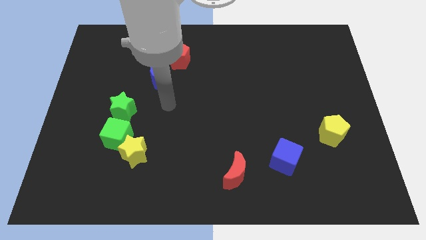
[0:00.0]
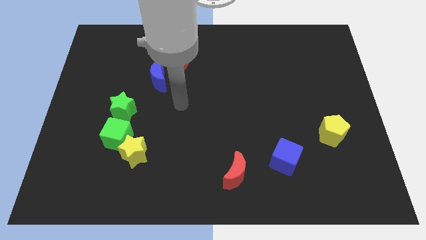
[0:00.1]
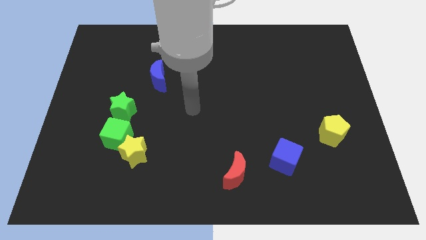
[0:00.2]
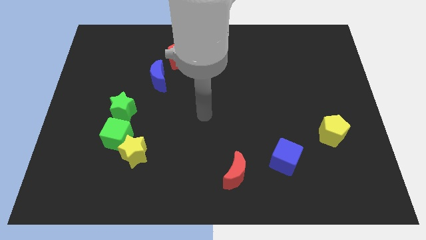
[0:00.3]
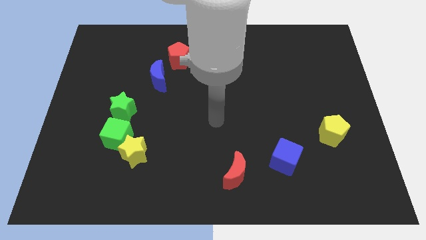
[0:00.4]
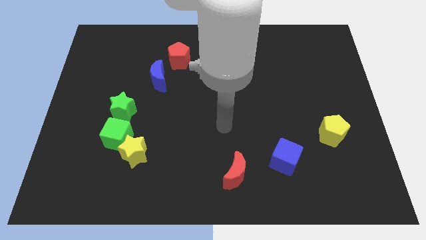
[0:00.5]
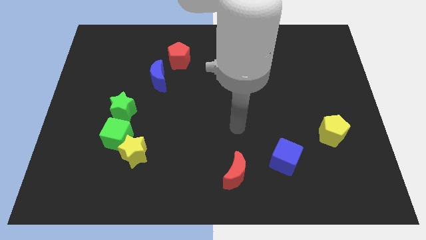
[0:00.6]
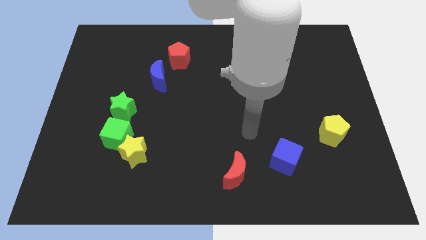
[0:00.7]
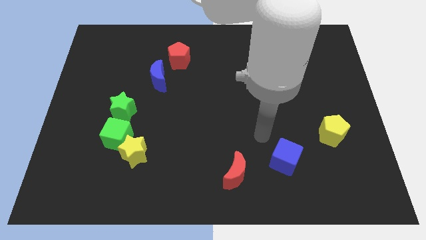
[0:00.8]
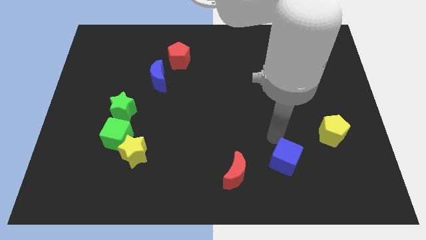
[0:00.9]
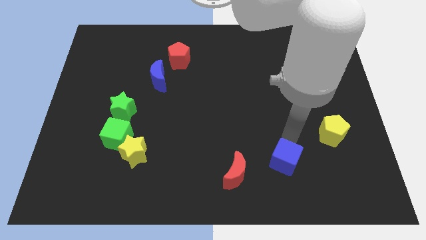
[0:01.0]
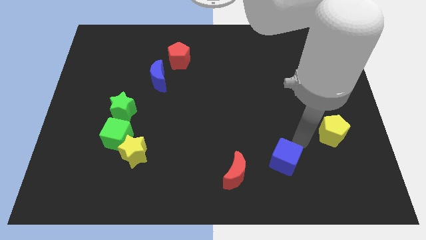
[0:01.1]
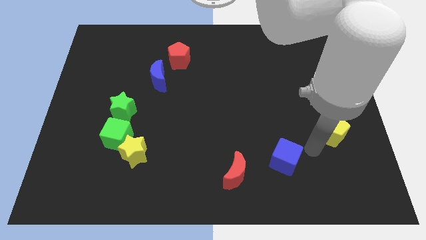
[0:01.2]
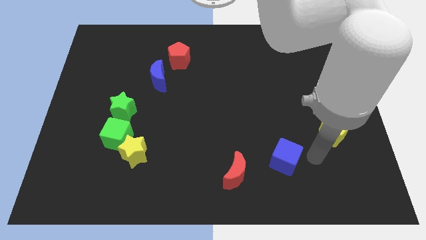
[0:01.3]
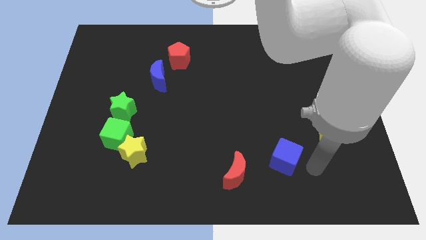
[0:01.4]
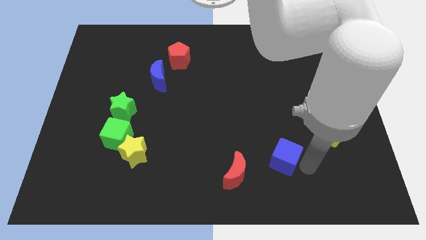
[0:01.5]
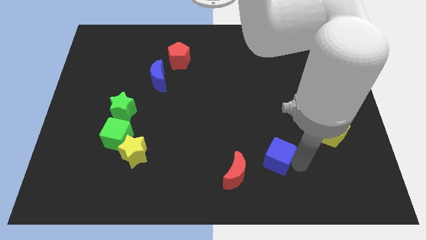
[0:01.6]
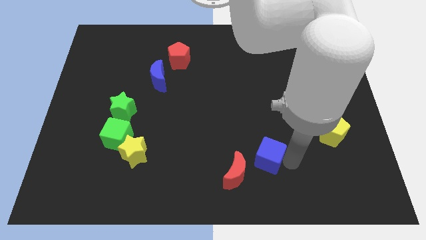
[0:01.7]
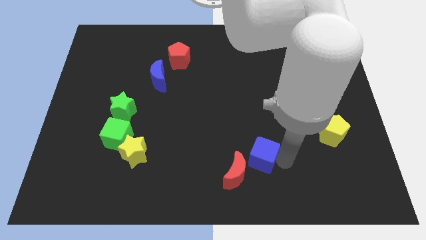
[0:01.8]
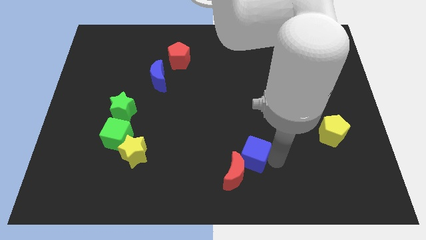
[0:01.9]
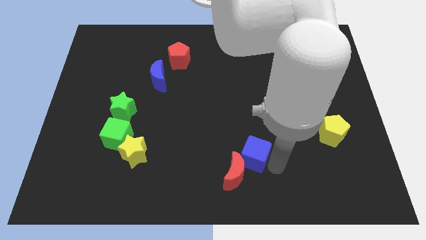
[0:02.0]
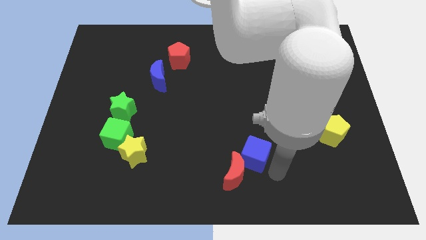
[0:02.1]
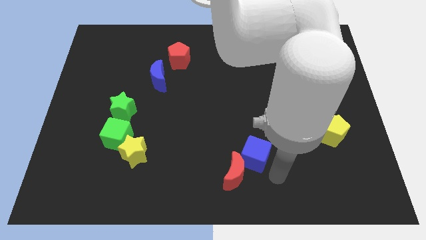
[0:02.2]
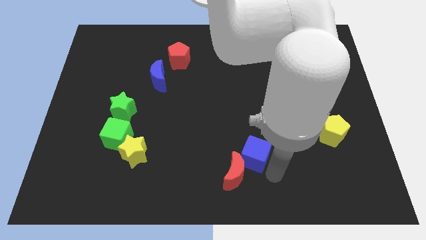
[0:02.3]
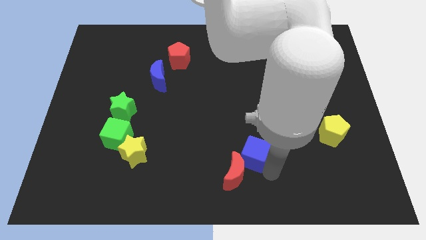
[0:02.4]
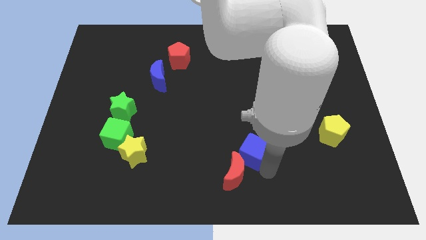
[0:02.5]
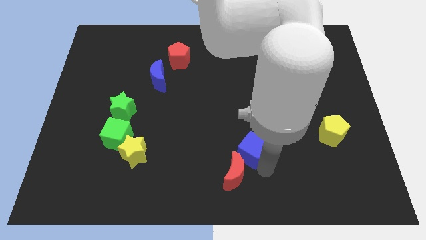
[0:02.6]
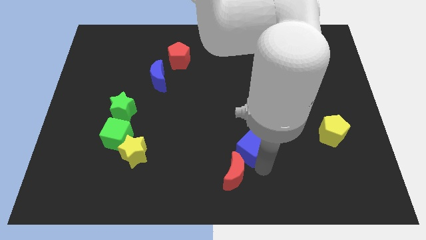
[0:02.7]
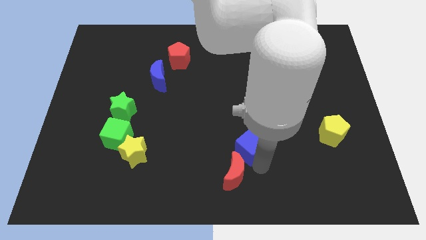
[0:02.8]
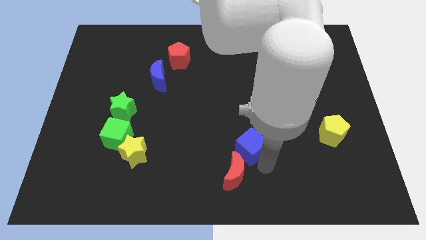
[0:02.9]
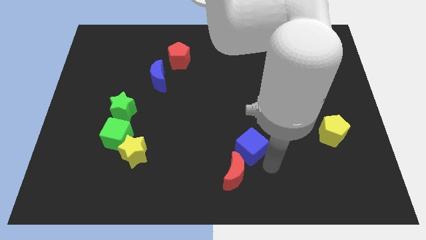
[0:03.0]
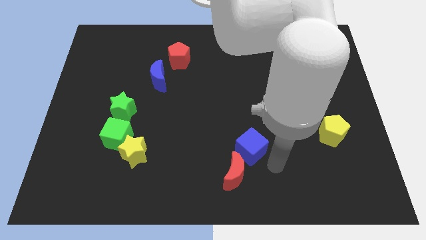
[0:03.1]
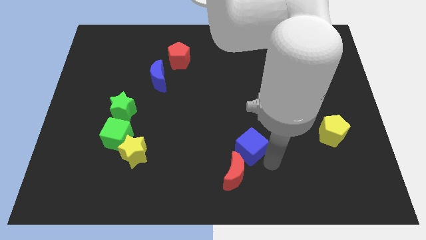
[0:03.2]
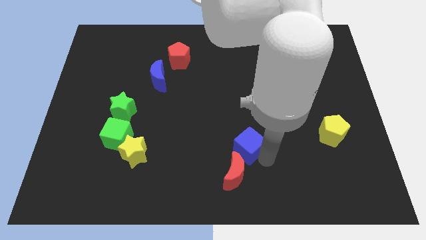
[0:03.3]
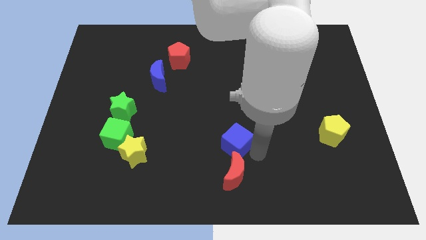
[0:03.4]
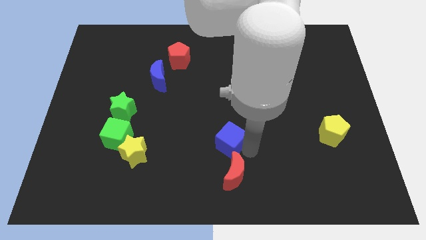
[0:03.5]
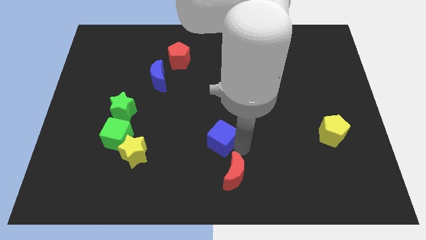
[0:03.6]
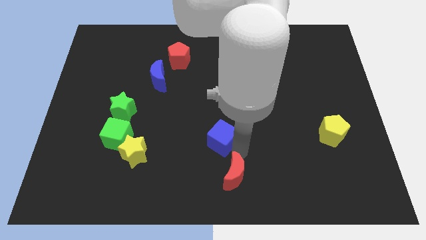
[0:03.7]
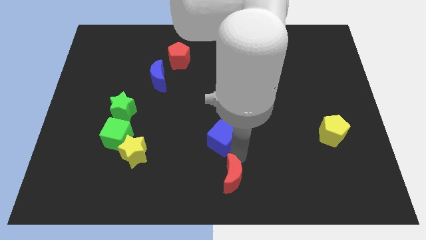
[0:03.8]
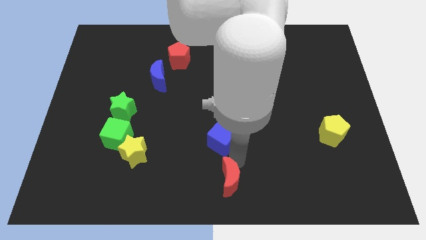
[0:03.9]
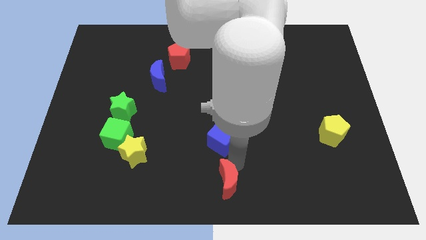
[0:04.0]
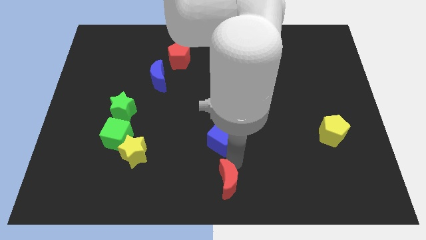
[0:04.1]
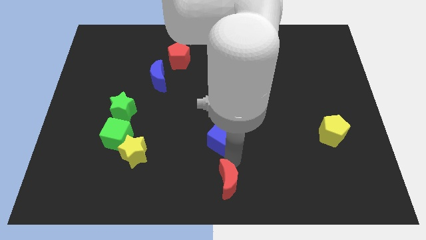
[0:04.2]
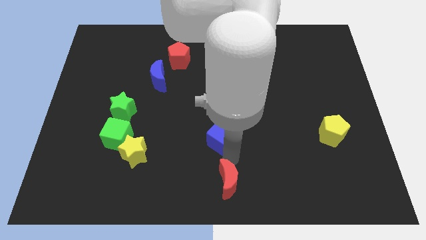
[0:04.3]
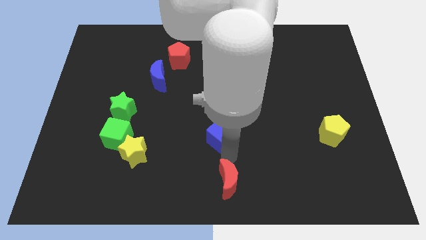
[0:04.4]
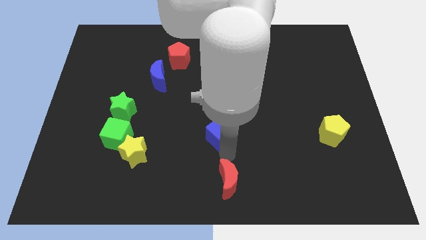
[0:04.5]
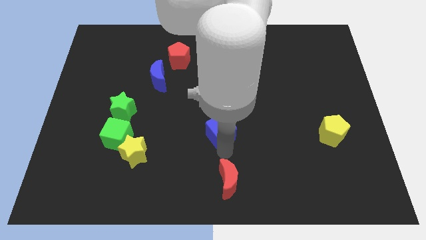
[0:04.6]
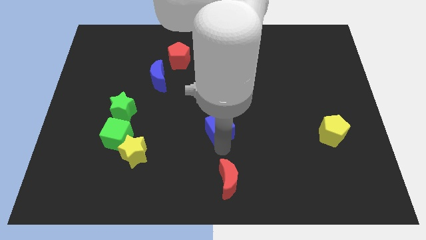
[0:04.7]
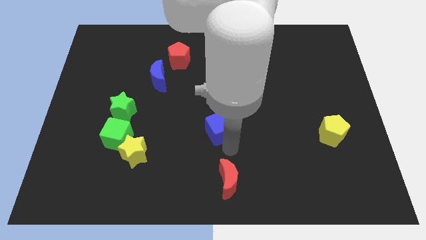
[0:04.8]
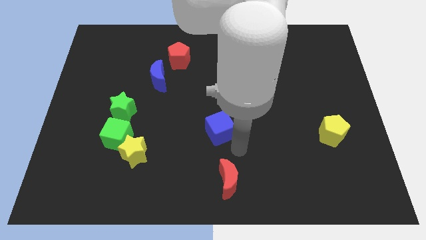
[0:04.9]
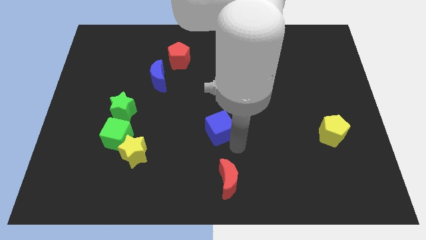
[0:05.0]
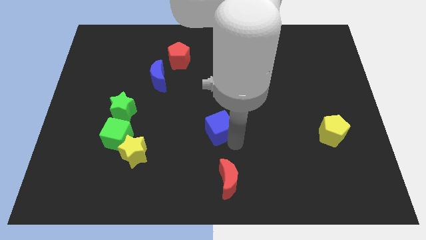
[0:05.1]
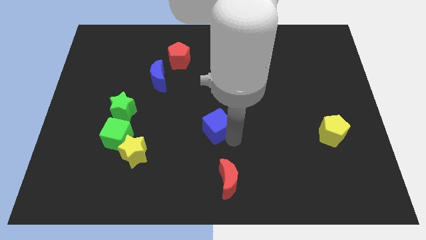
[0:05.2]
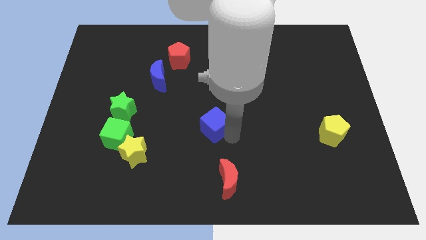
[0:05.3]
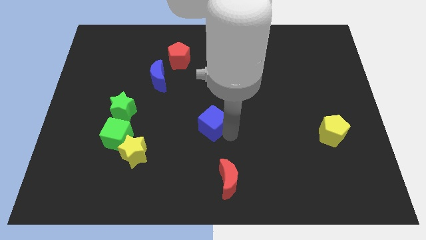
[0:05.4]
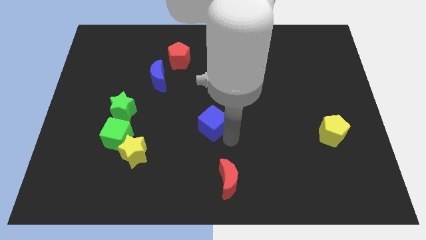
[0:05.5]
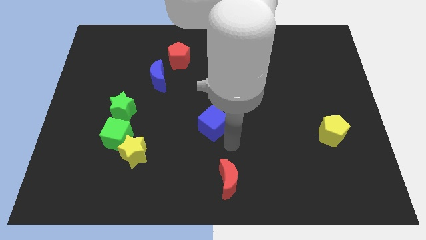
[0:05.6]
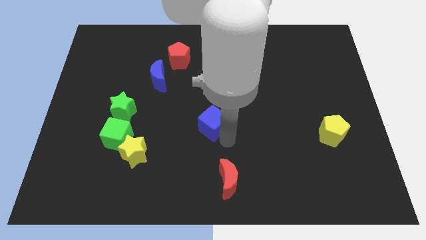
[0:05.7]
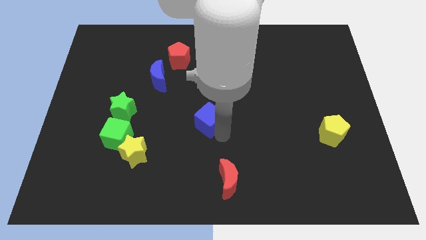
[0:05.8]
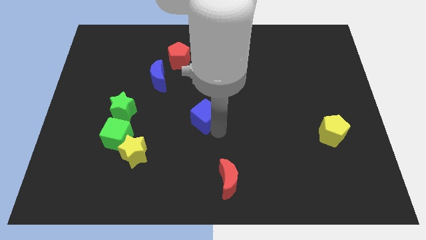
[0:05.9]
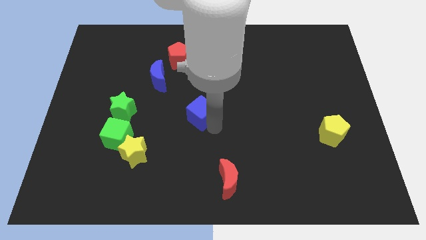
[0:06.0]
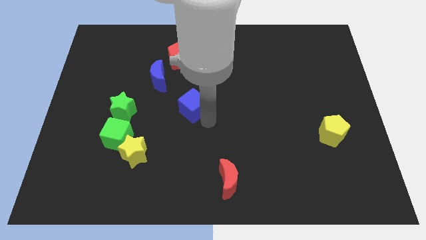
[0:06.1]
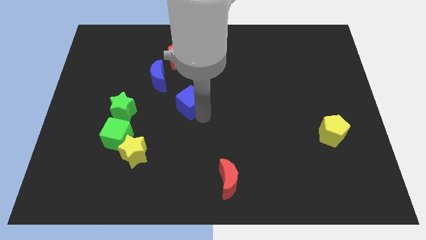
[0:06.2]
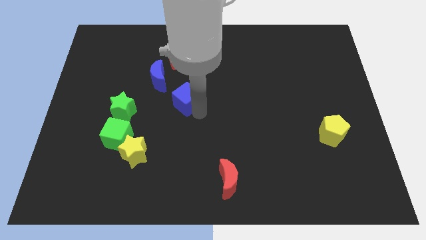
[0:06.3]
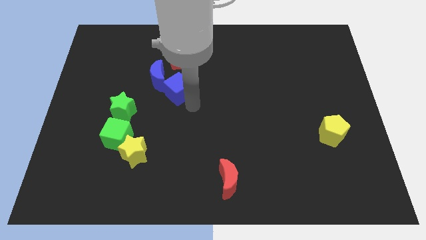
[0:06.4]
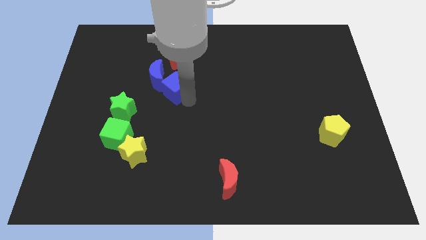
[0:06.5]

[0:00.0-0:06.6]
put the blue cube close to the blue moon

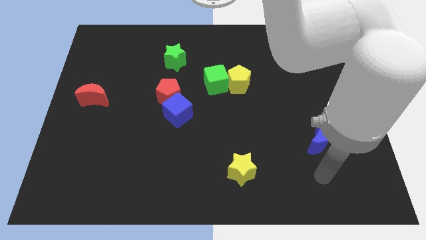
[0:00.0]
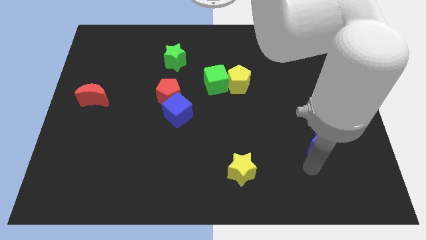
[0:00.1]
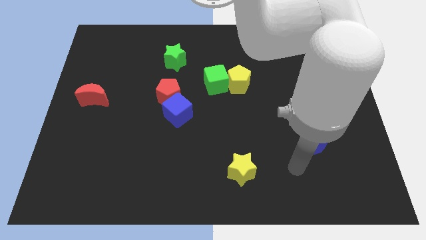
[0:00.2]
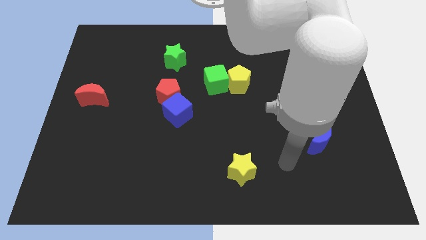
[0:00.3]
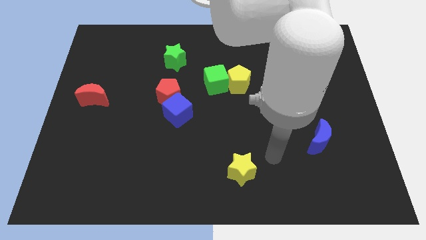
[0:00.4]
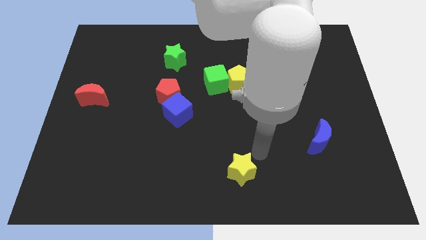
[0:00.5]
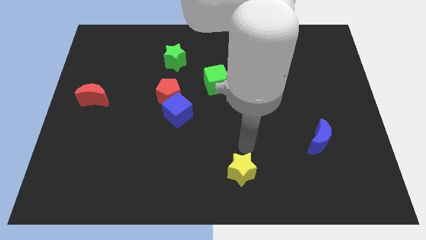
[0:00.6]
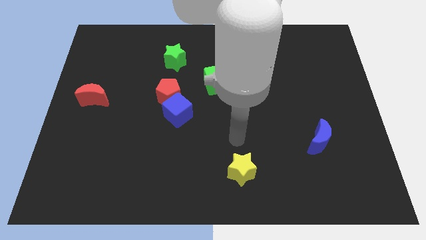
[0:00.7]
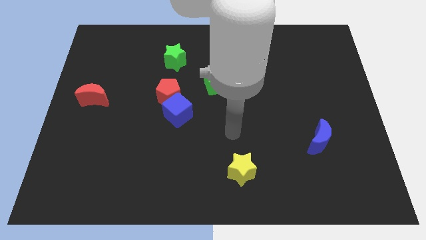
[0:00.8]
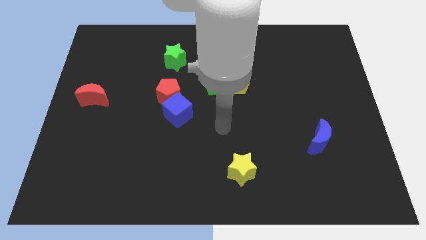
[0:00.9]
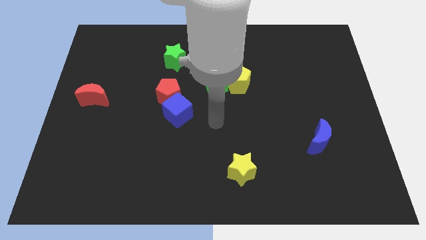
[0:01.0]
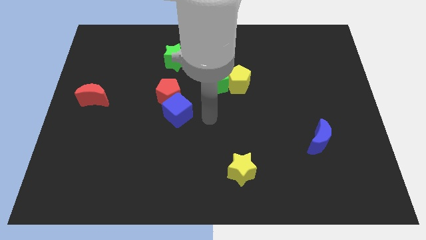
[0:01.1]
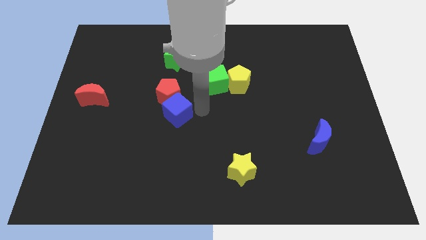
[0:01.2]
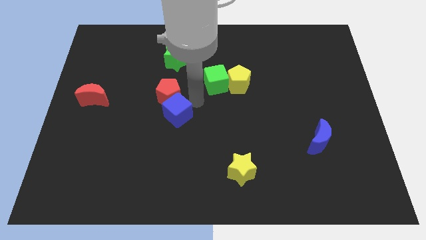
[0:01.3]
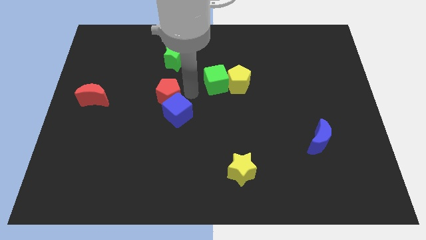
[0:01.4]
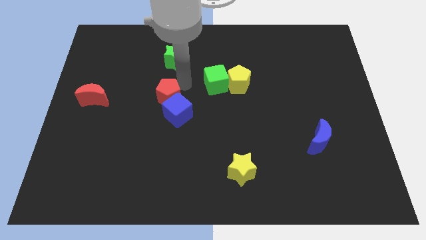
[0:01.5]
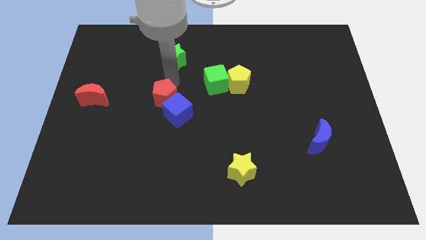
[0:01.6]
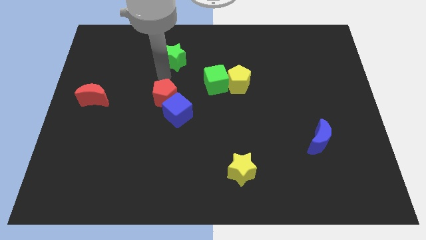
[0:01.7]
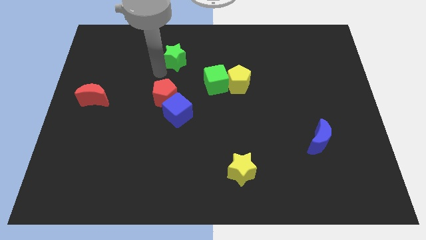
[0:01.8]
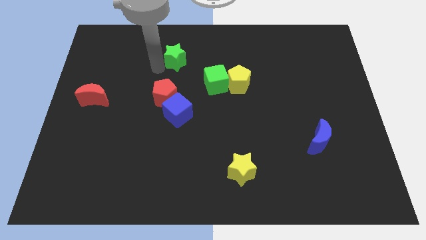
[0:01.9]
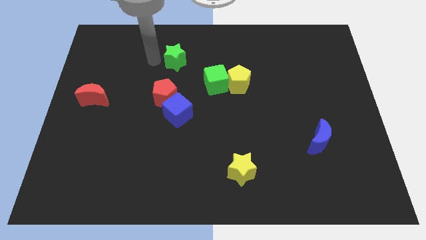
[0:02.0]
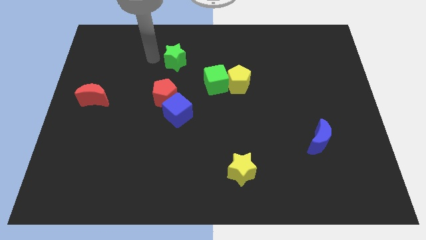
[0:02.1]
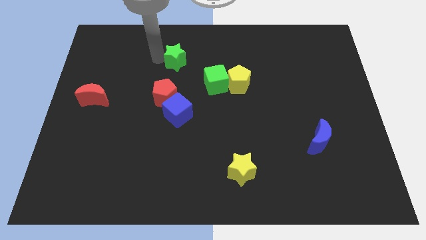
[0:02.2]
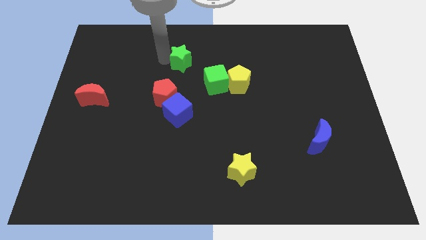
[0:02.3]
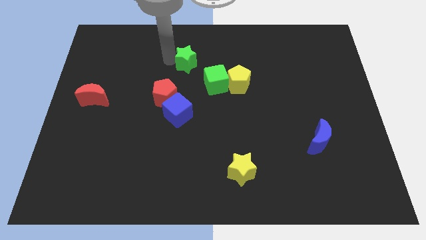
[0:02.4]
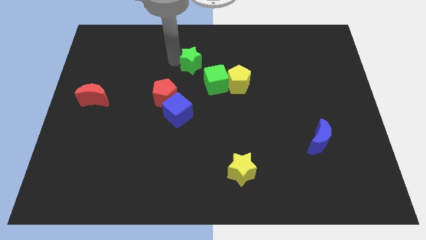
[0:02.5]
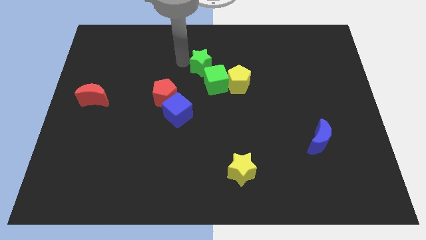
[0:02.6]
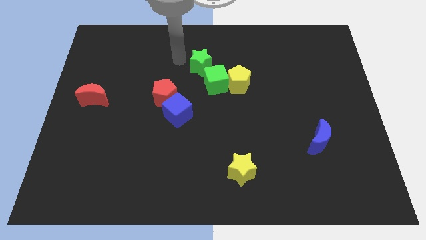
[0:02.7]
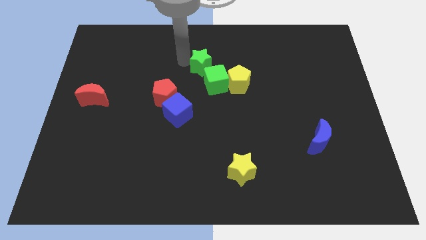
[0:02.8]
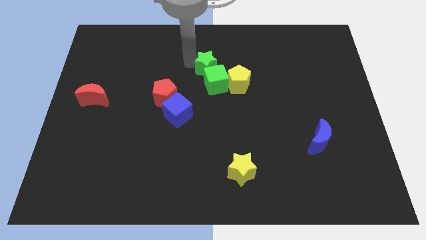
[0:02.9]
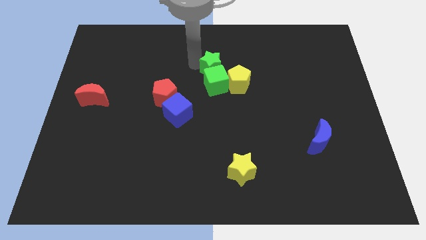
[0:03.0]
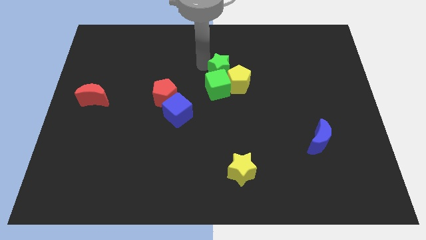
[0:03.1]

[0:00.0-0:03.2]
move the green star towards the yellow pentagon
